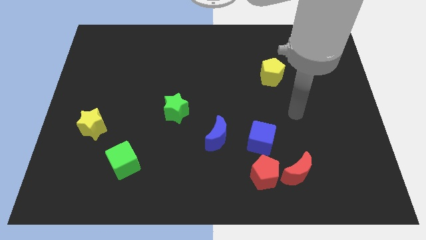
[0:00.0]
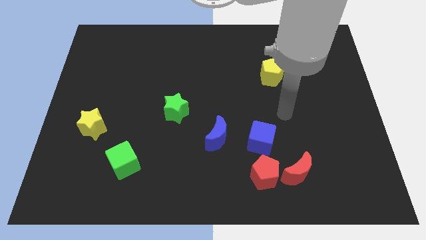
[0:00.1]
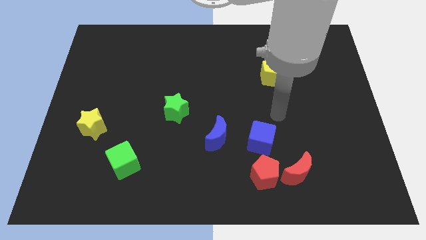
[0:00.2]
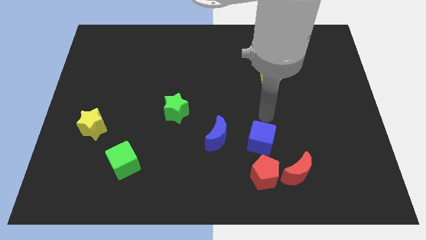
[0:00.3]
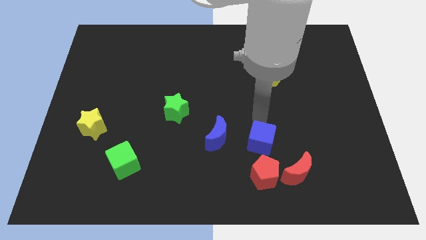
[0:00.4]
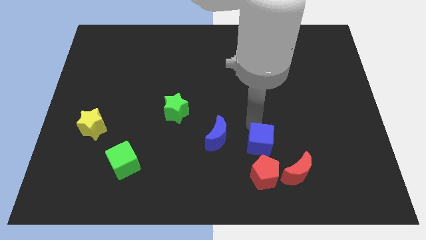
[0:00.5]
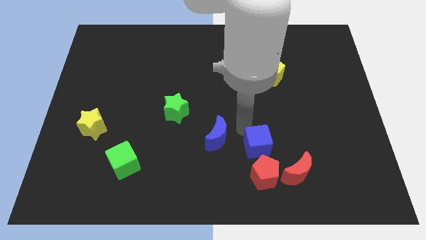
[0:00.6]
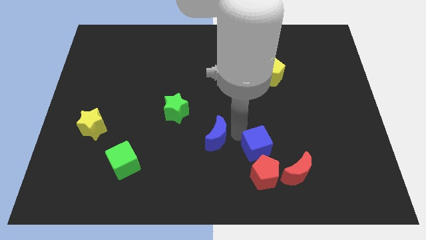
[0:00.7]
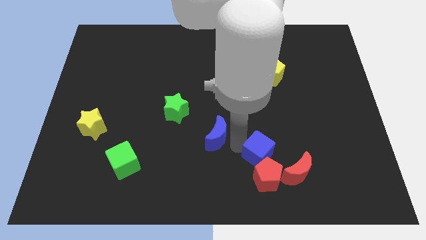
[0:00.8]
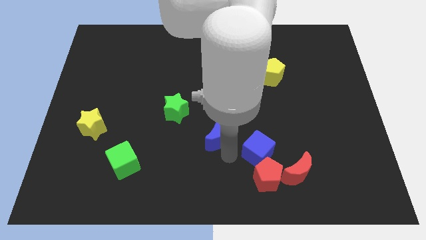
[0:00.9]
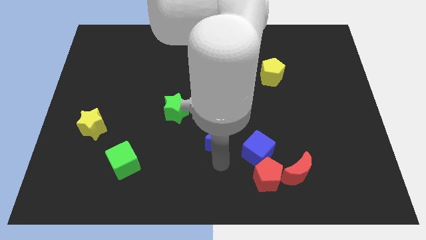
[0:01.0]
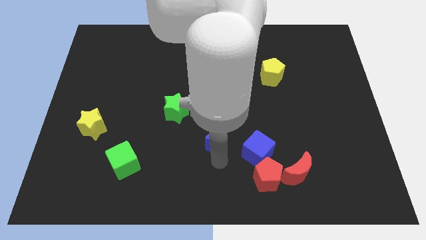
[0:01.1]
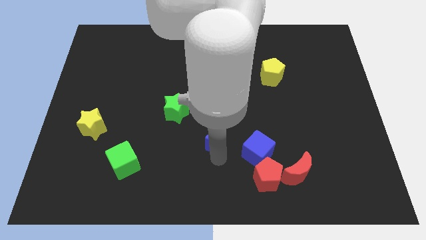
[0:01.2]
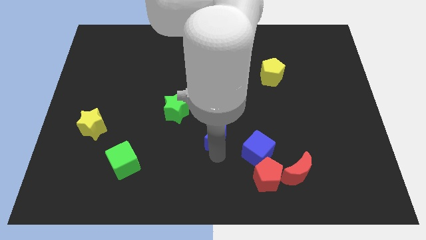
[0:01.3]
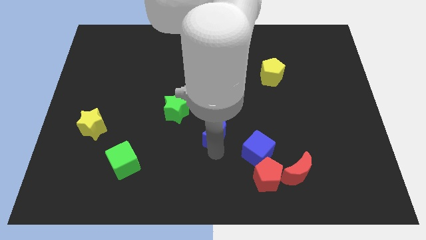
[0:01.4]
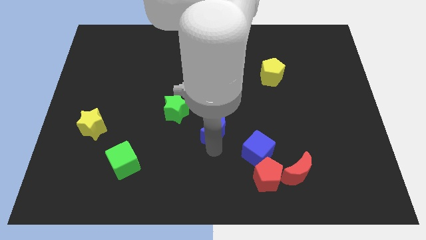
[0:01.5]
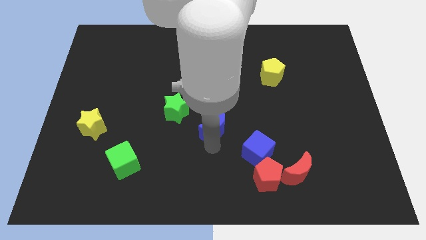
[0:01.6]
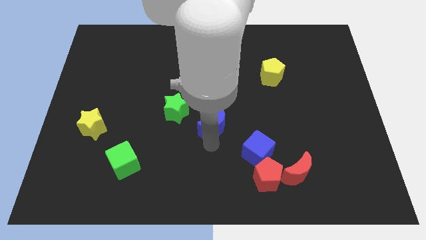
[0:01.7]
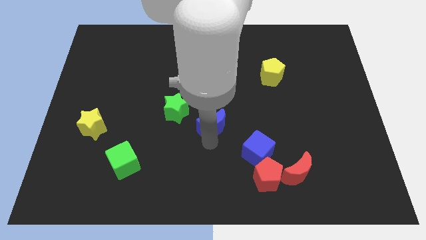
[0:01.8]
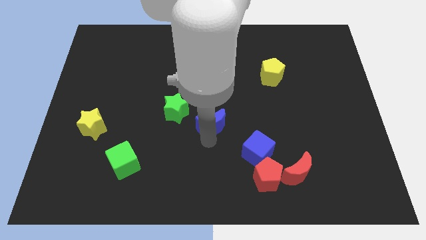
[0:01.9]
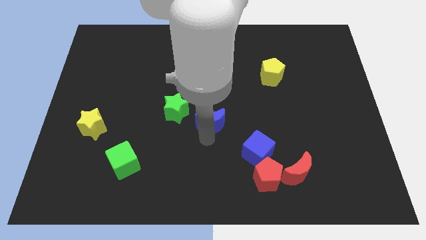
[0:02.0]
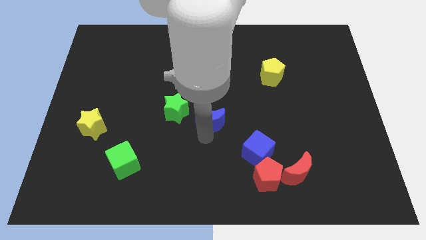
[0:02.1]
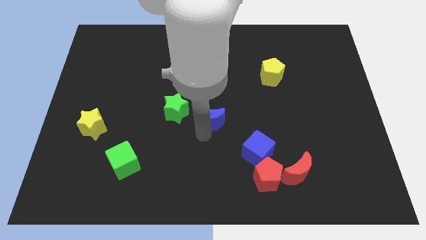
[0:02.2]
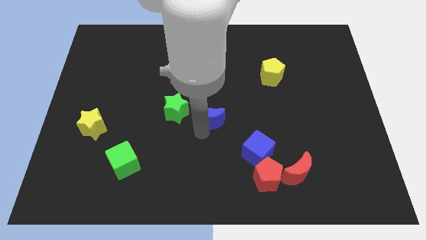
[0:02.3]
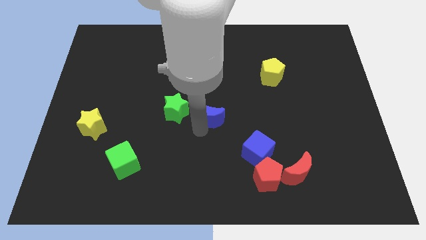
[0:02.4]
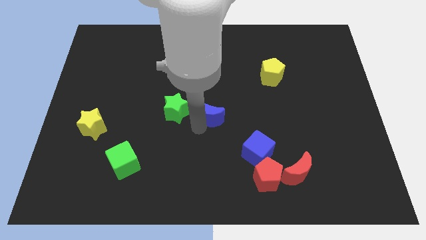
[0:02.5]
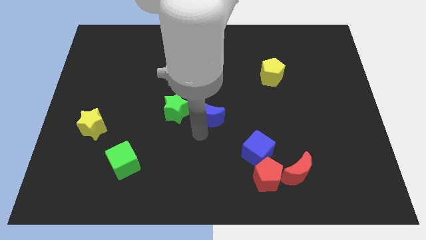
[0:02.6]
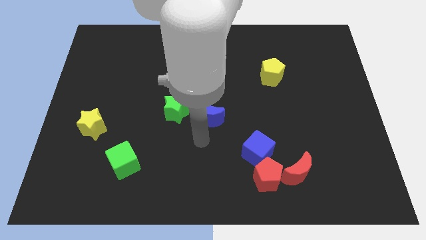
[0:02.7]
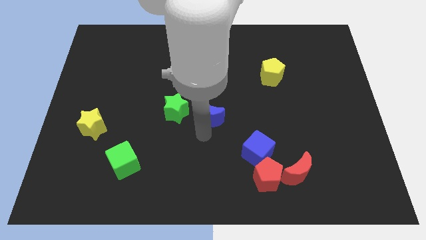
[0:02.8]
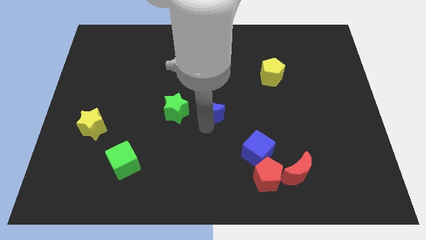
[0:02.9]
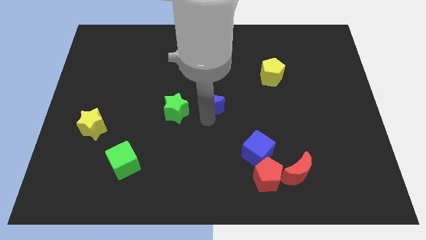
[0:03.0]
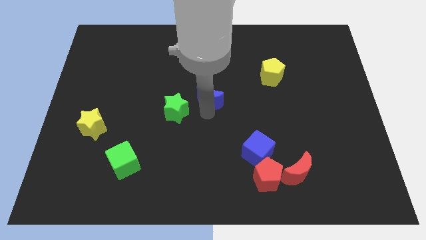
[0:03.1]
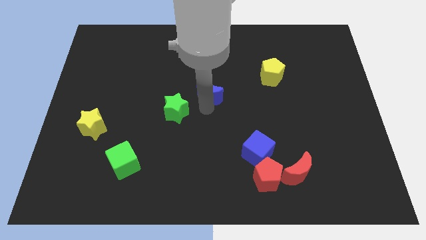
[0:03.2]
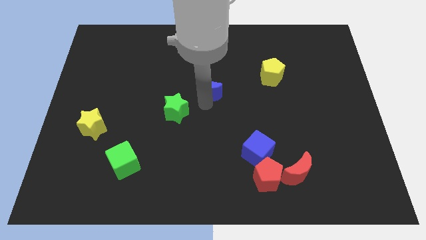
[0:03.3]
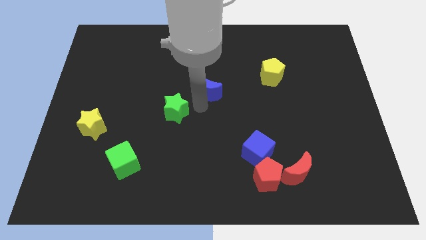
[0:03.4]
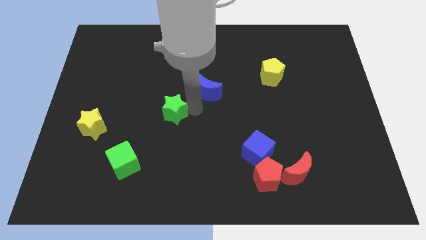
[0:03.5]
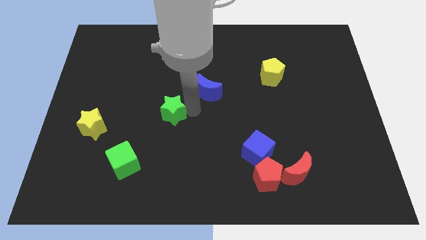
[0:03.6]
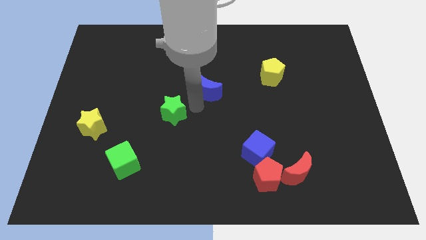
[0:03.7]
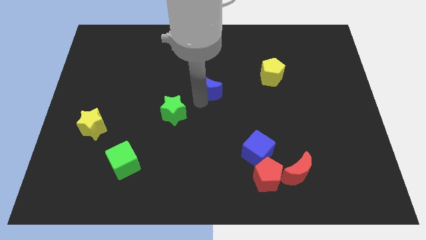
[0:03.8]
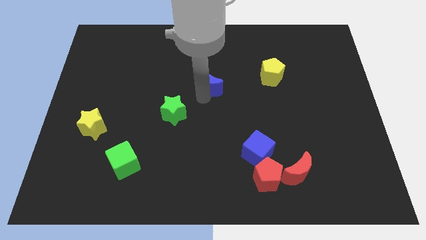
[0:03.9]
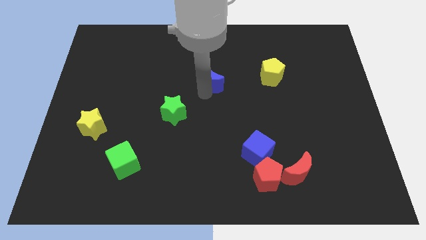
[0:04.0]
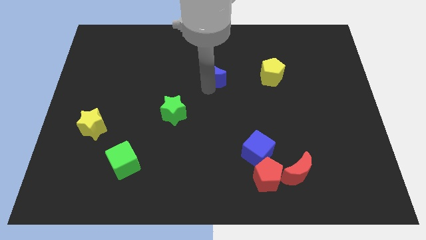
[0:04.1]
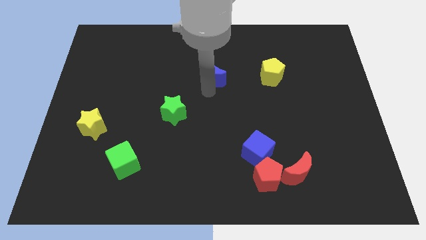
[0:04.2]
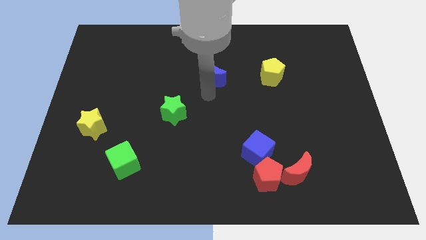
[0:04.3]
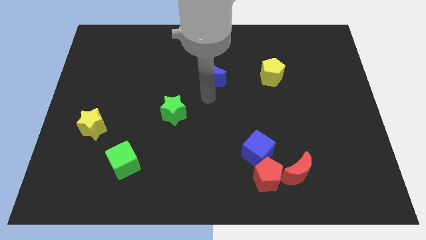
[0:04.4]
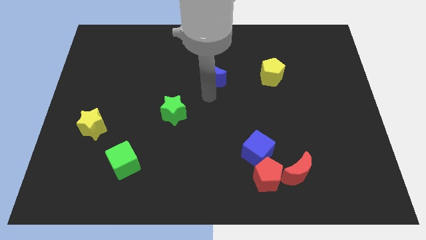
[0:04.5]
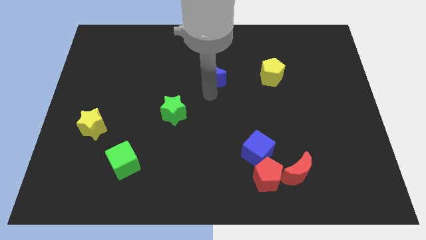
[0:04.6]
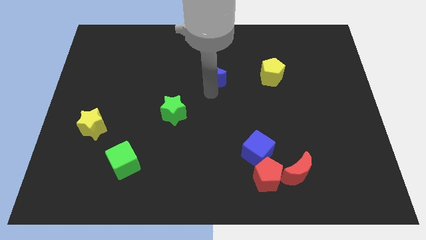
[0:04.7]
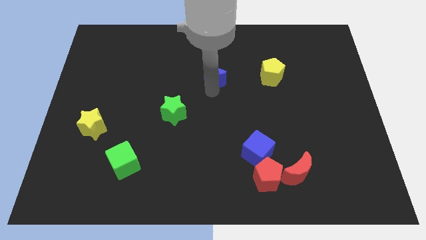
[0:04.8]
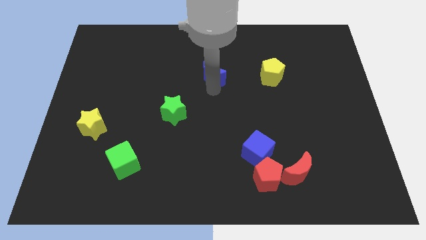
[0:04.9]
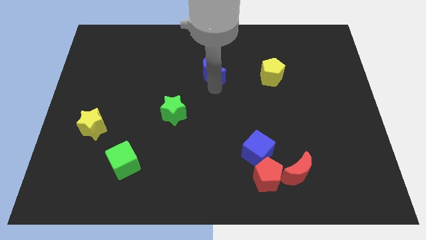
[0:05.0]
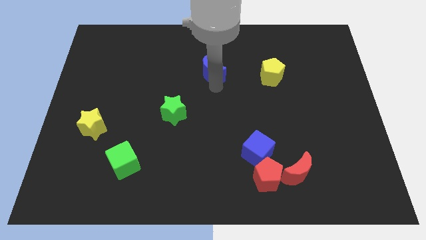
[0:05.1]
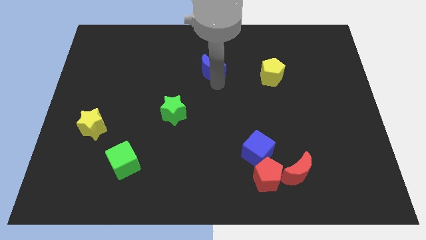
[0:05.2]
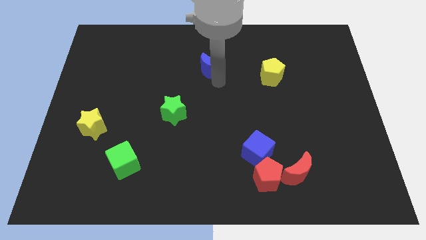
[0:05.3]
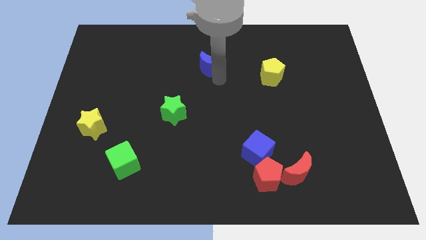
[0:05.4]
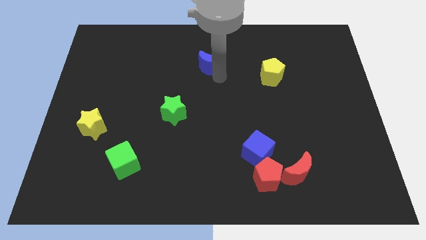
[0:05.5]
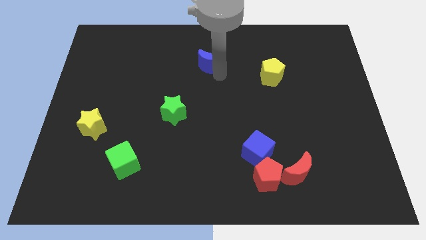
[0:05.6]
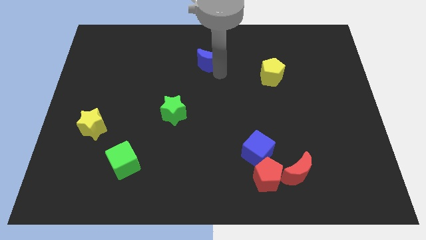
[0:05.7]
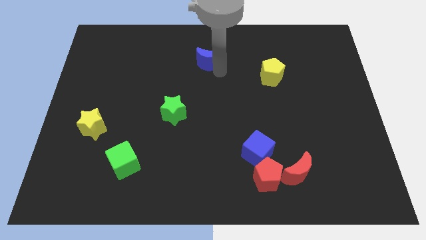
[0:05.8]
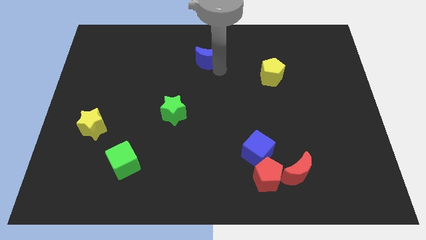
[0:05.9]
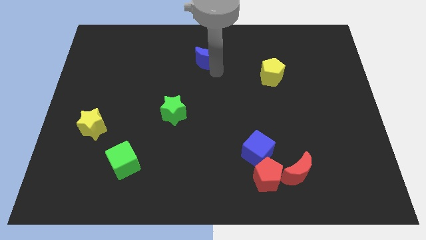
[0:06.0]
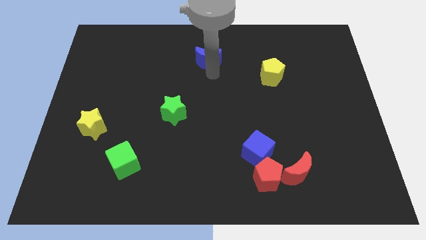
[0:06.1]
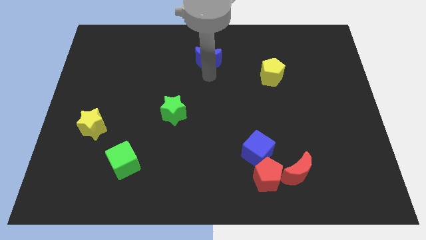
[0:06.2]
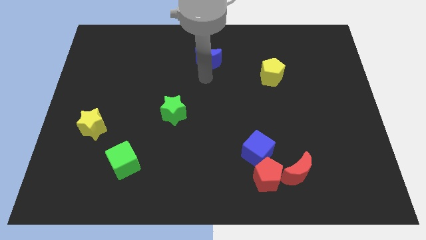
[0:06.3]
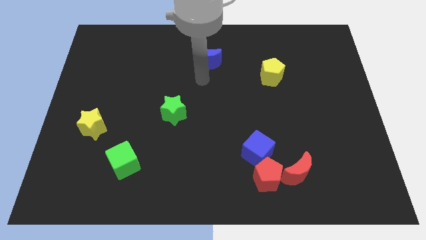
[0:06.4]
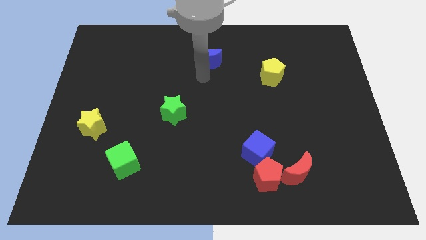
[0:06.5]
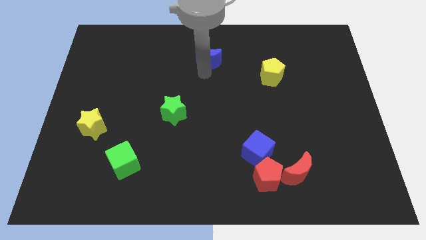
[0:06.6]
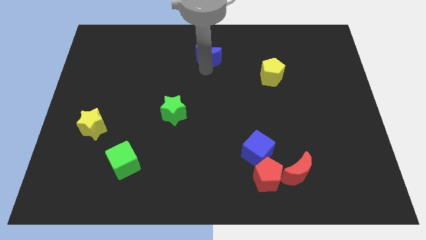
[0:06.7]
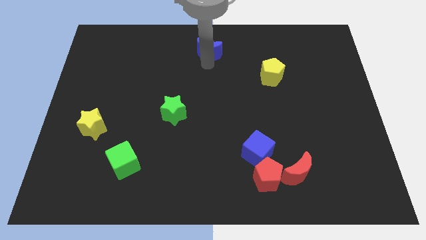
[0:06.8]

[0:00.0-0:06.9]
slide the blue moon to the top side

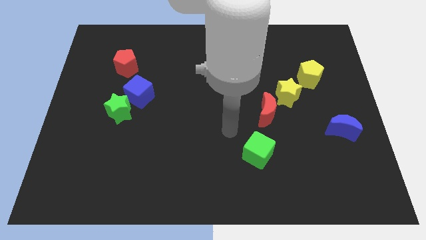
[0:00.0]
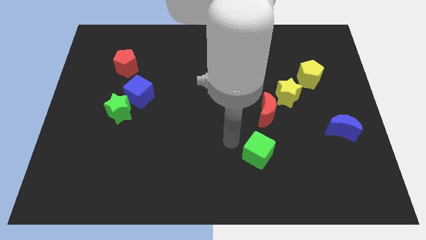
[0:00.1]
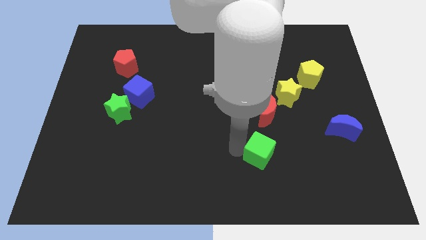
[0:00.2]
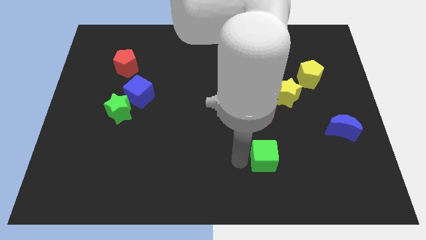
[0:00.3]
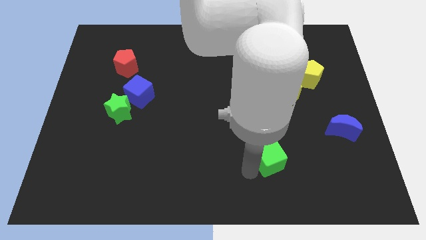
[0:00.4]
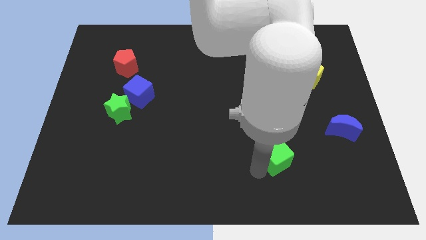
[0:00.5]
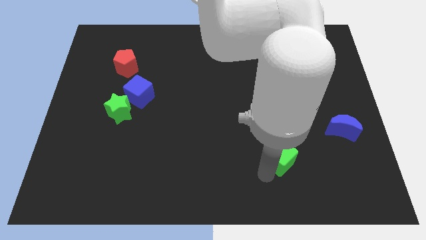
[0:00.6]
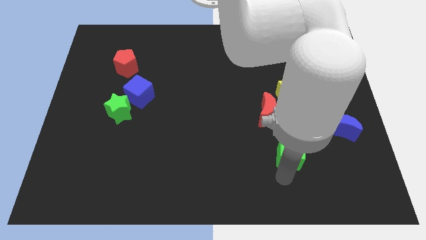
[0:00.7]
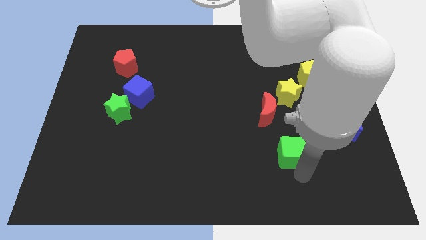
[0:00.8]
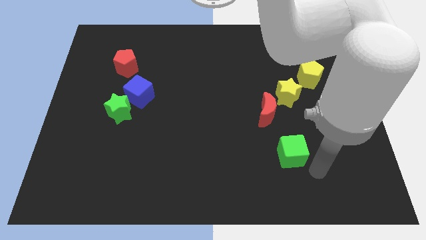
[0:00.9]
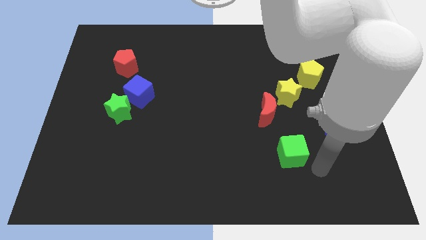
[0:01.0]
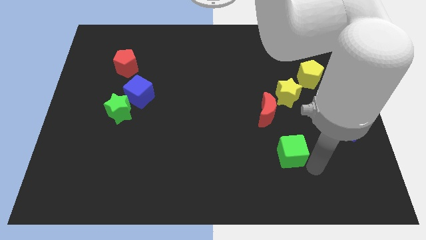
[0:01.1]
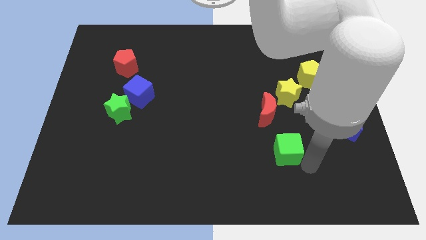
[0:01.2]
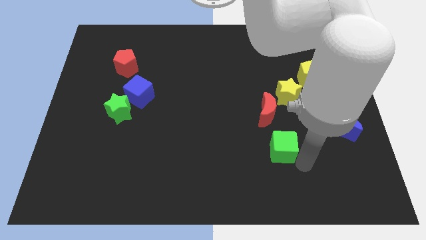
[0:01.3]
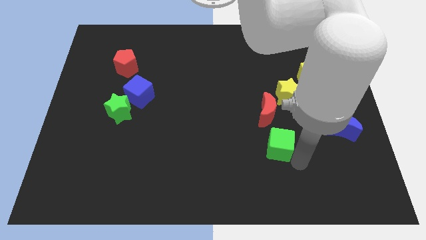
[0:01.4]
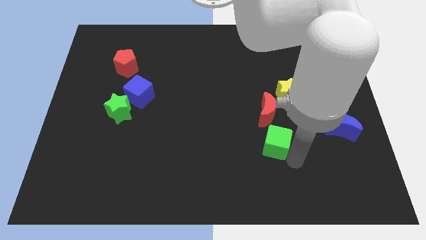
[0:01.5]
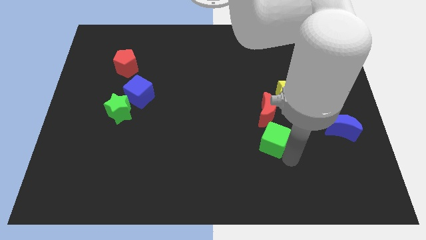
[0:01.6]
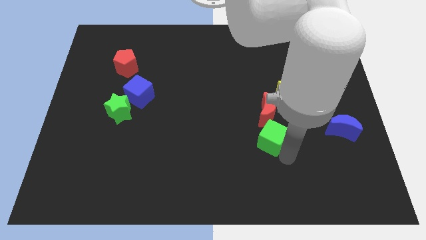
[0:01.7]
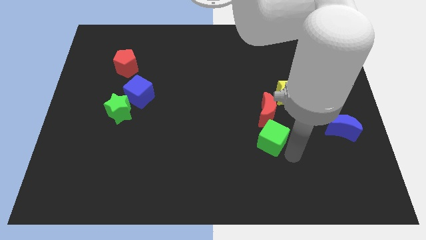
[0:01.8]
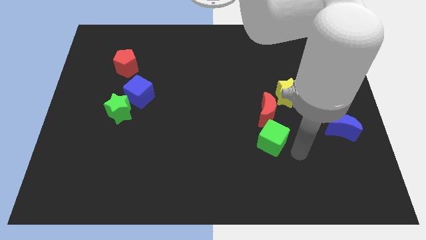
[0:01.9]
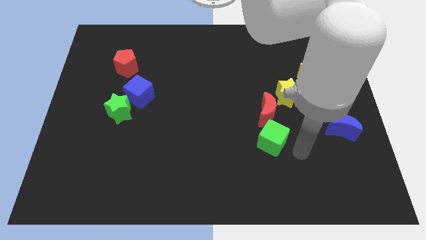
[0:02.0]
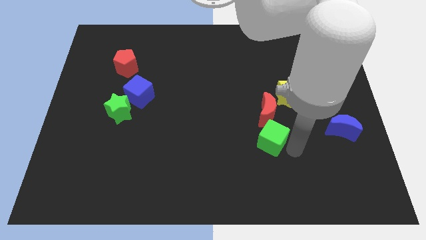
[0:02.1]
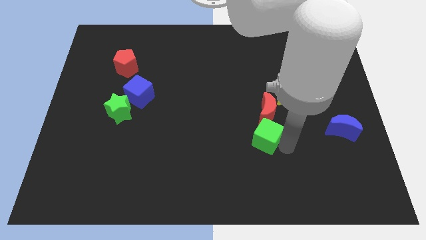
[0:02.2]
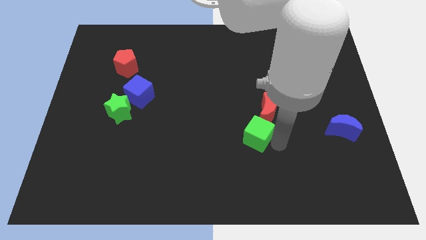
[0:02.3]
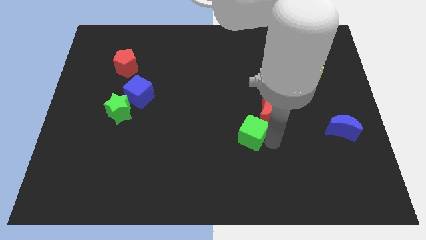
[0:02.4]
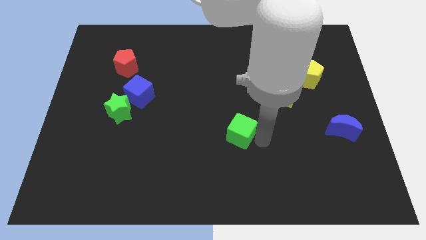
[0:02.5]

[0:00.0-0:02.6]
put the green cube to the center of the board
